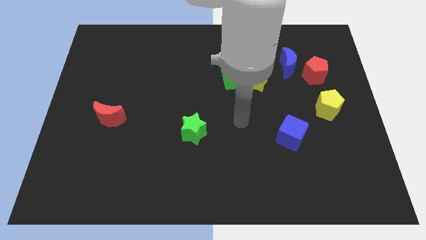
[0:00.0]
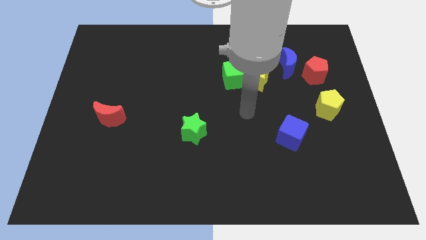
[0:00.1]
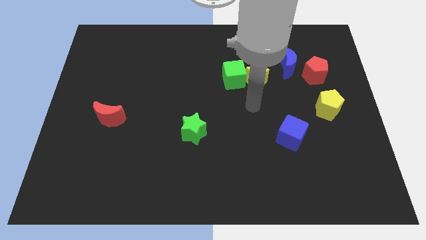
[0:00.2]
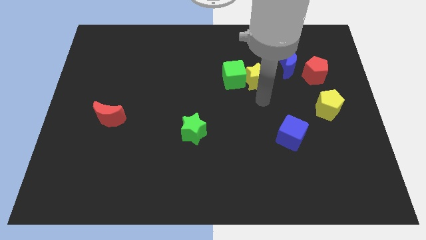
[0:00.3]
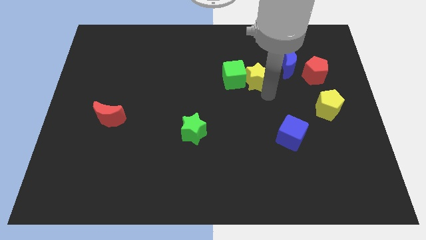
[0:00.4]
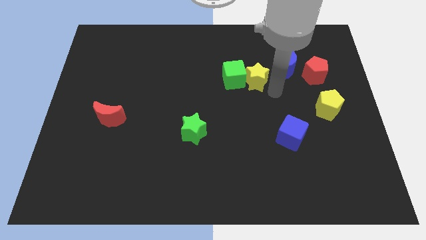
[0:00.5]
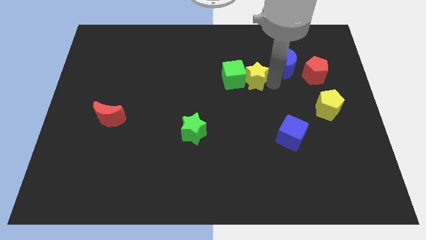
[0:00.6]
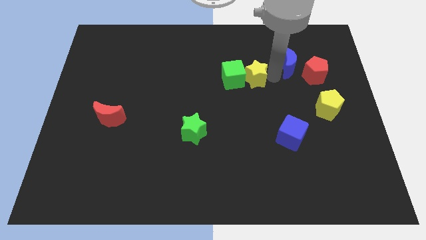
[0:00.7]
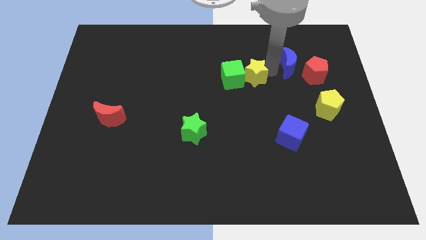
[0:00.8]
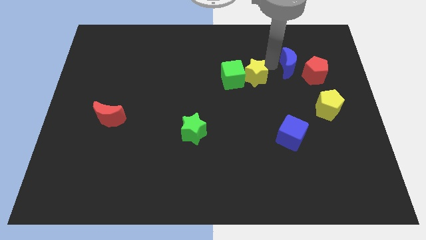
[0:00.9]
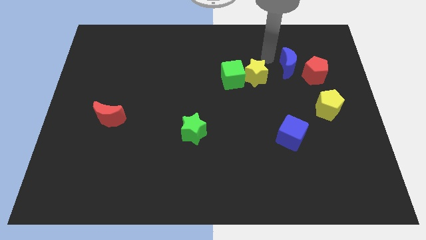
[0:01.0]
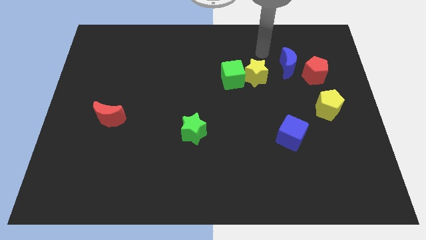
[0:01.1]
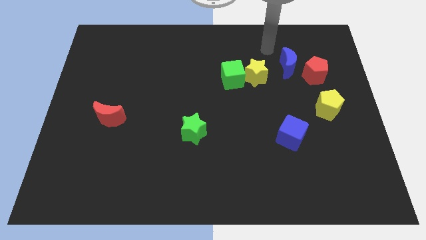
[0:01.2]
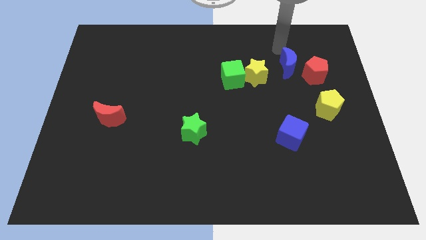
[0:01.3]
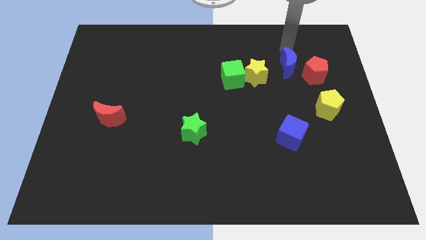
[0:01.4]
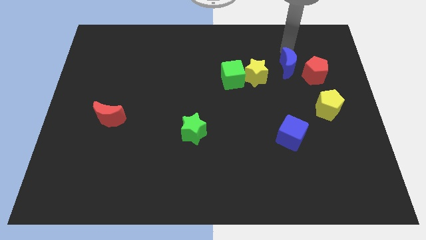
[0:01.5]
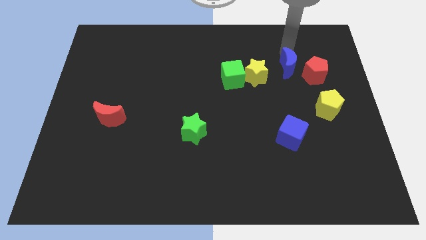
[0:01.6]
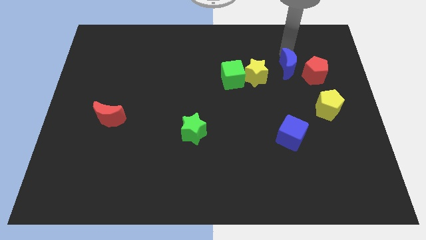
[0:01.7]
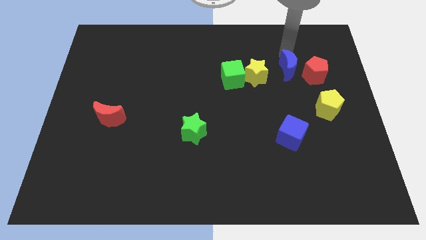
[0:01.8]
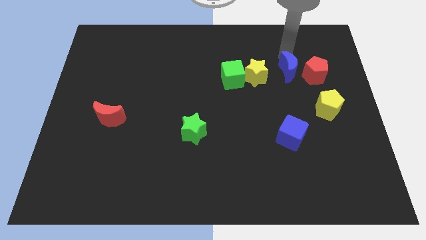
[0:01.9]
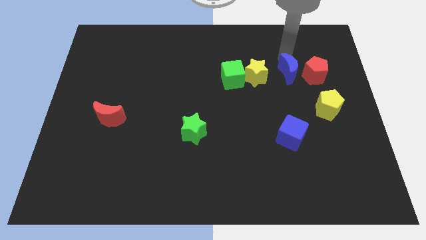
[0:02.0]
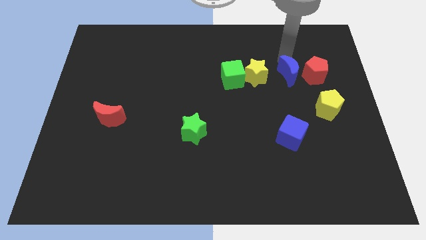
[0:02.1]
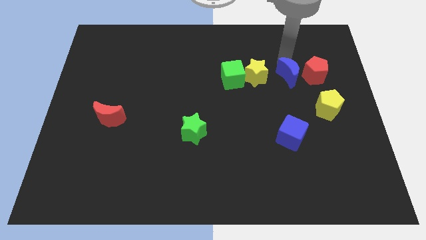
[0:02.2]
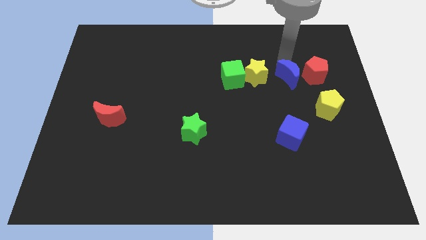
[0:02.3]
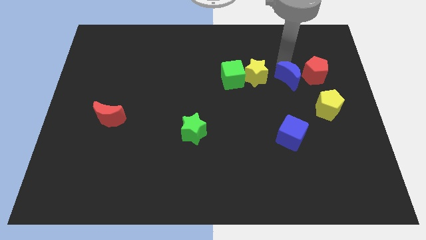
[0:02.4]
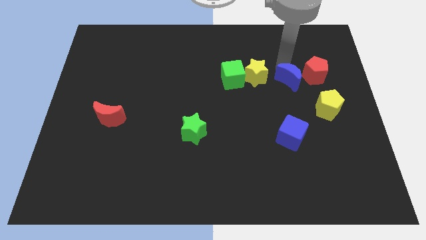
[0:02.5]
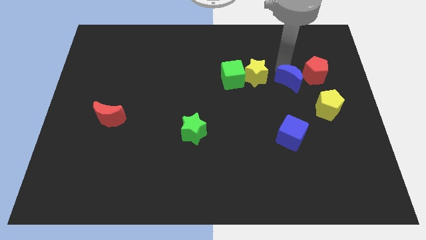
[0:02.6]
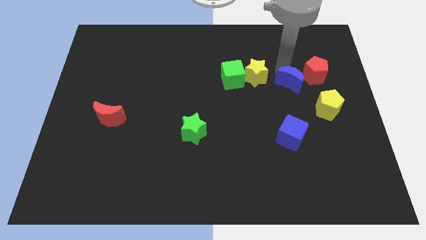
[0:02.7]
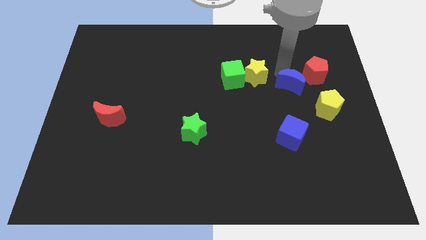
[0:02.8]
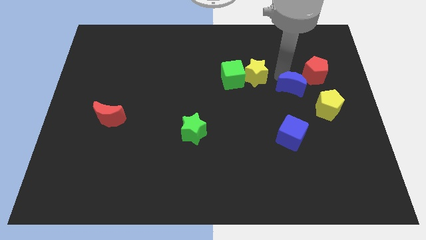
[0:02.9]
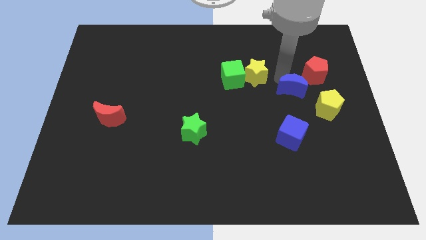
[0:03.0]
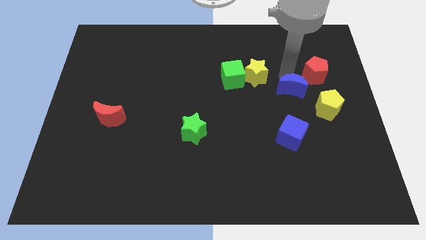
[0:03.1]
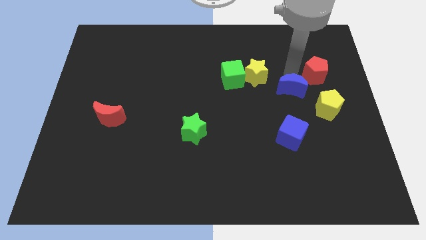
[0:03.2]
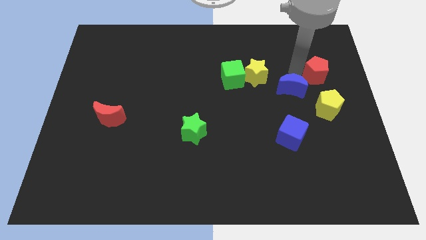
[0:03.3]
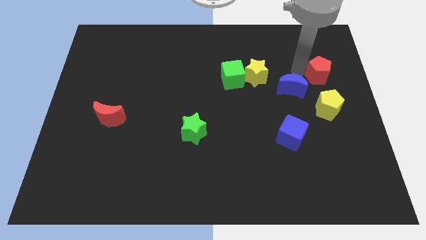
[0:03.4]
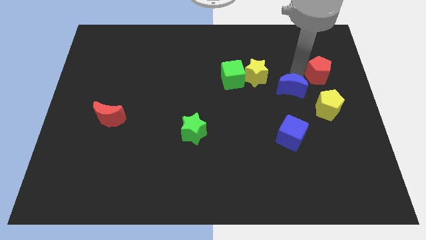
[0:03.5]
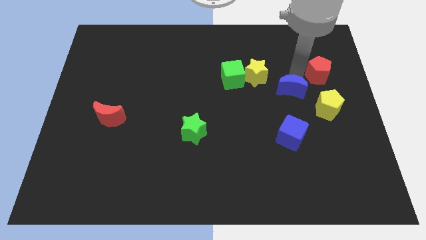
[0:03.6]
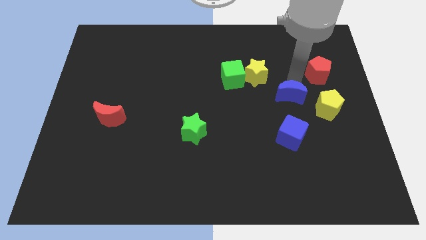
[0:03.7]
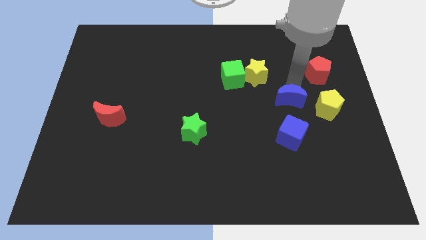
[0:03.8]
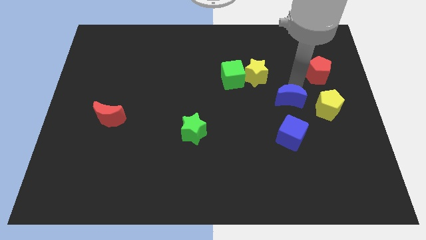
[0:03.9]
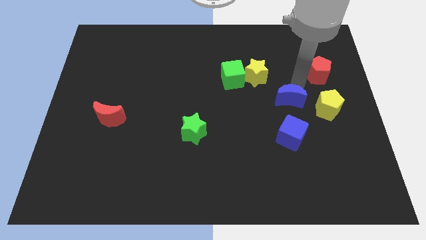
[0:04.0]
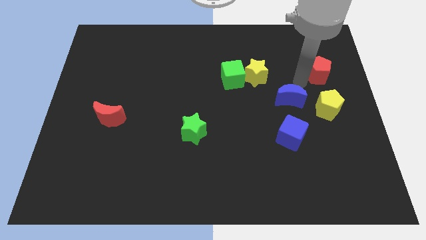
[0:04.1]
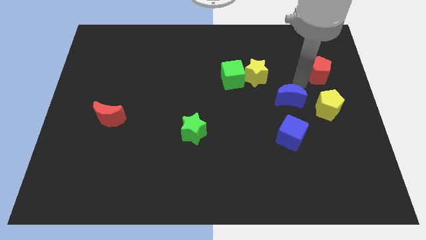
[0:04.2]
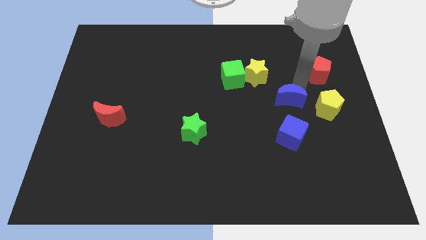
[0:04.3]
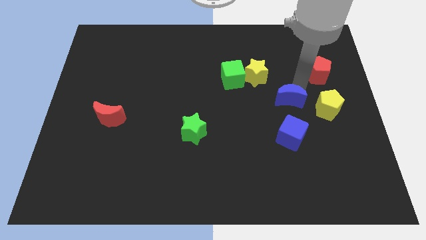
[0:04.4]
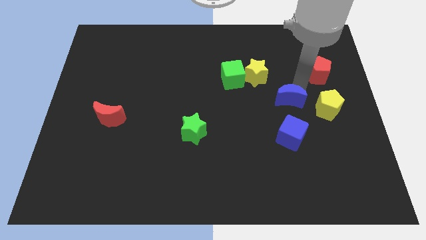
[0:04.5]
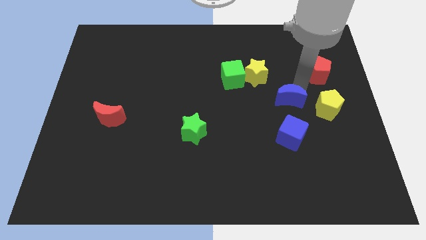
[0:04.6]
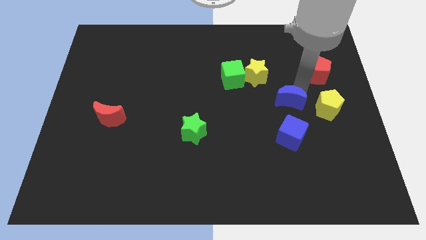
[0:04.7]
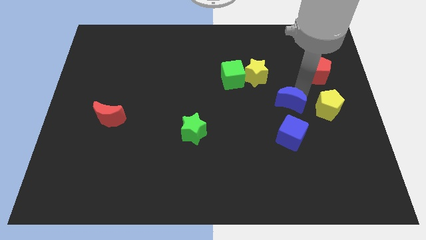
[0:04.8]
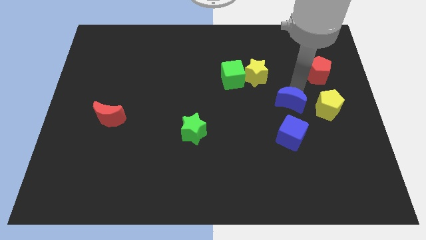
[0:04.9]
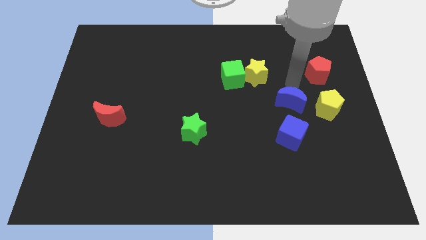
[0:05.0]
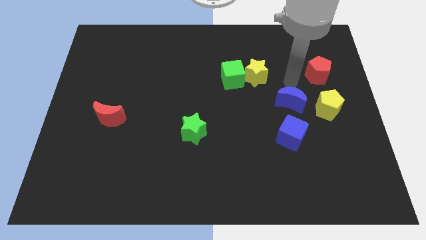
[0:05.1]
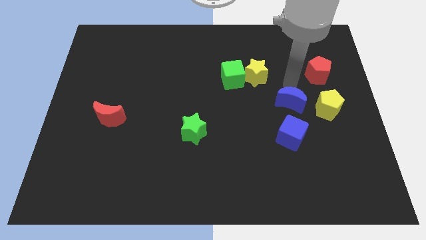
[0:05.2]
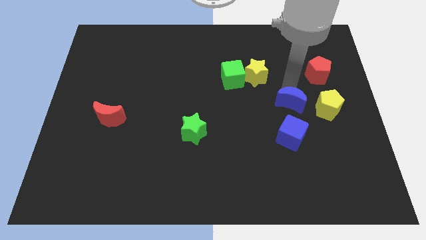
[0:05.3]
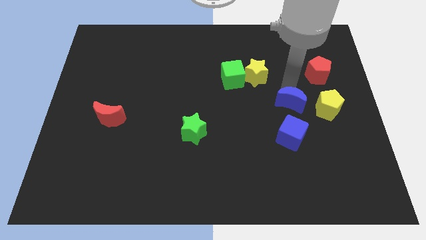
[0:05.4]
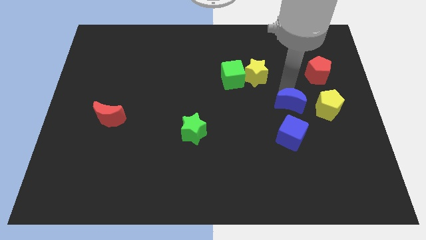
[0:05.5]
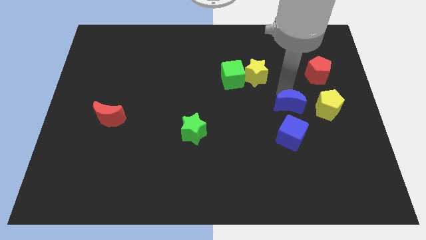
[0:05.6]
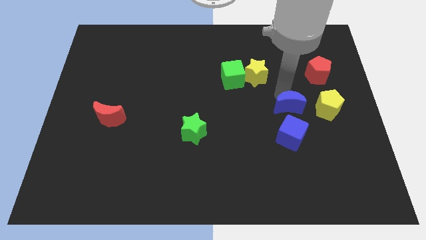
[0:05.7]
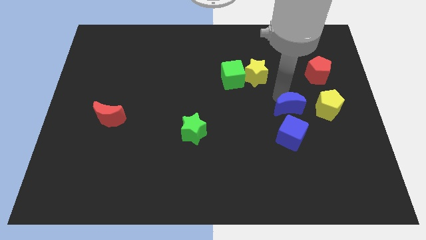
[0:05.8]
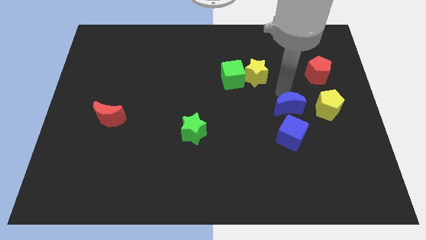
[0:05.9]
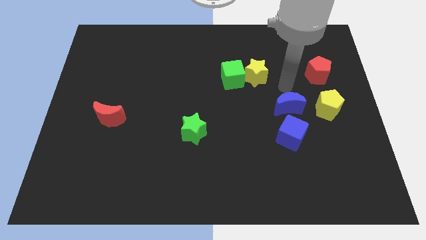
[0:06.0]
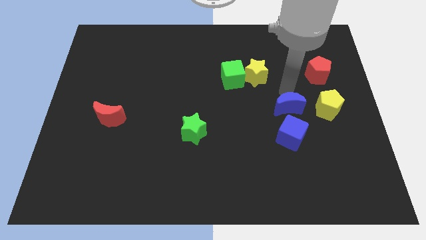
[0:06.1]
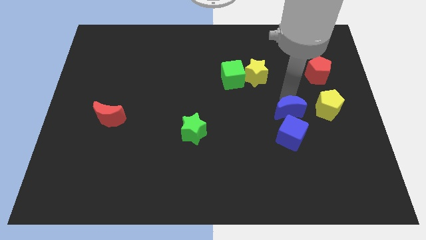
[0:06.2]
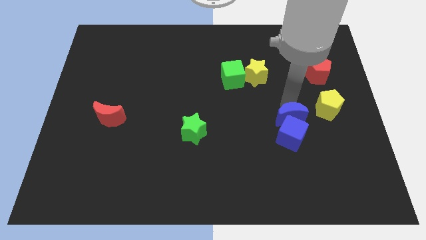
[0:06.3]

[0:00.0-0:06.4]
push the blue moon next to the blue cube

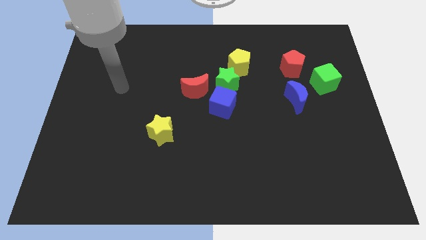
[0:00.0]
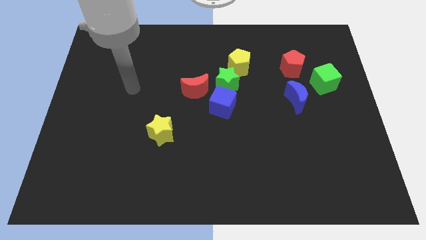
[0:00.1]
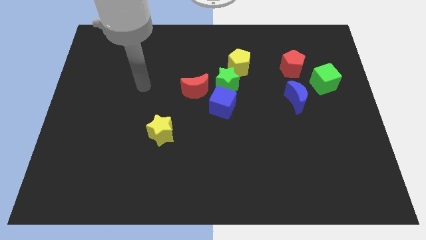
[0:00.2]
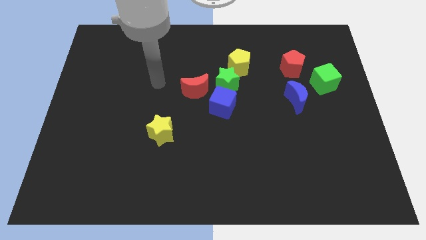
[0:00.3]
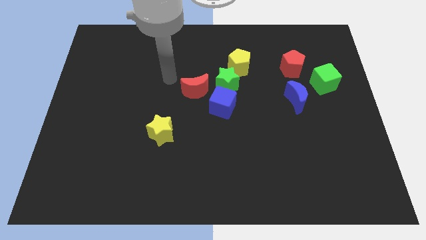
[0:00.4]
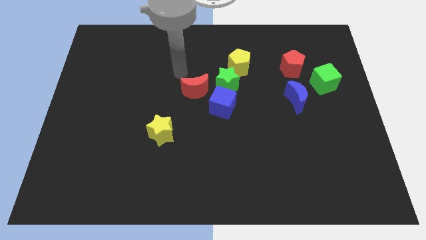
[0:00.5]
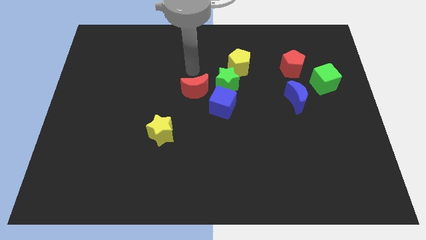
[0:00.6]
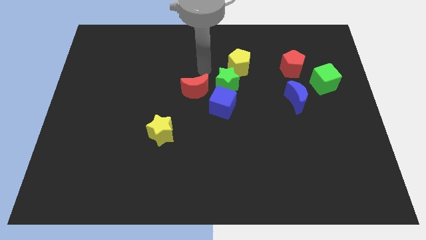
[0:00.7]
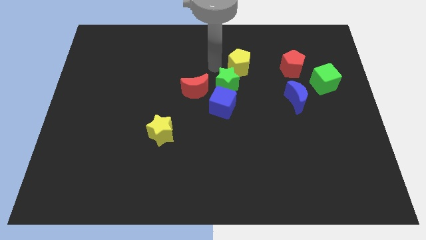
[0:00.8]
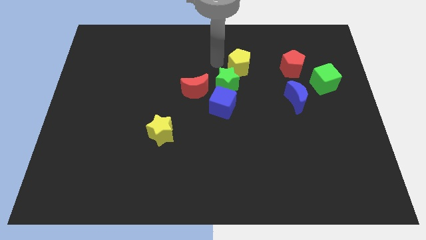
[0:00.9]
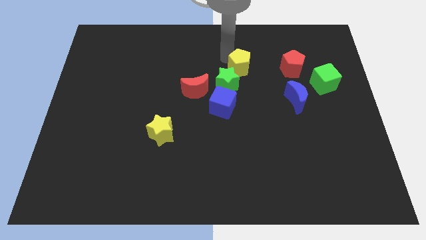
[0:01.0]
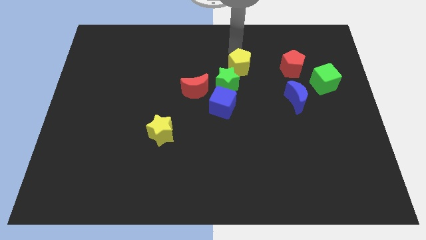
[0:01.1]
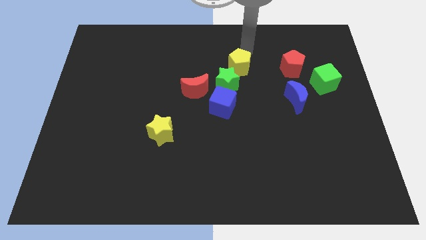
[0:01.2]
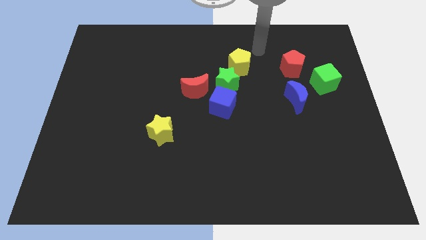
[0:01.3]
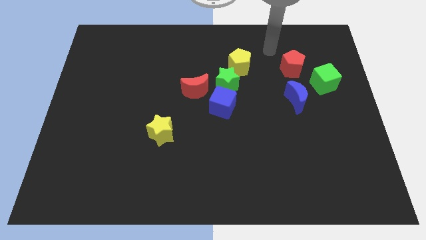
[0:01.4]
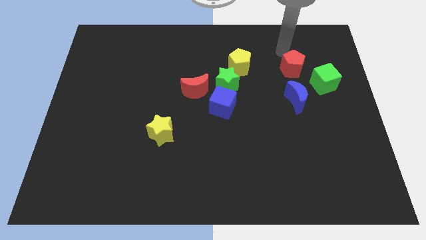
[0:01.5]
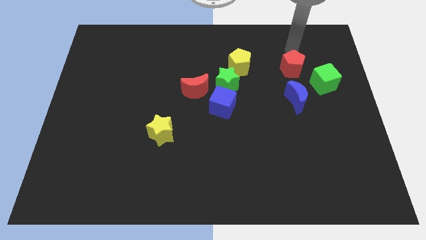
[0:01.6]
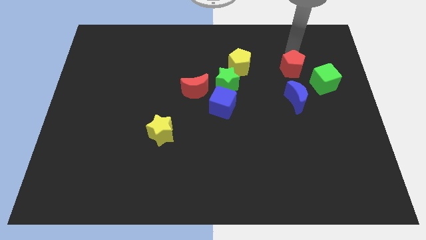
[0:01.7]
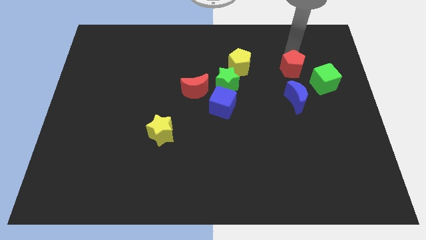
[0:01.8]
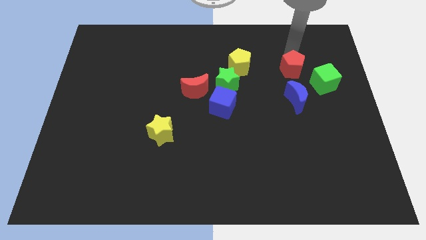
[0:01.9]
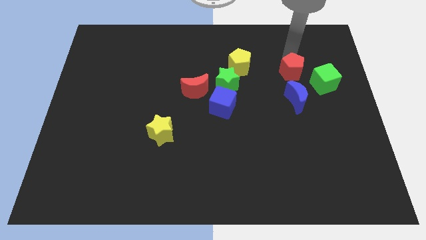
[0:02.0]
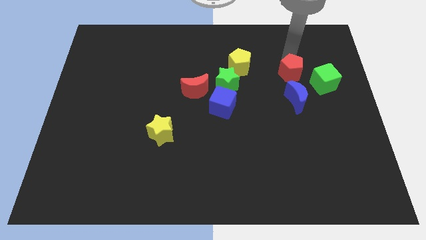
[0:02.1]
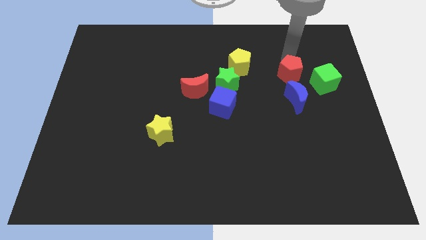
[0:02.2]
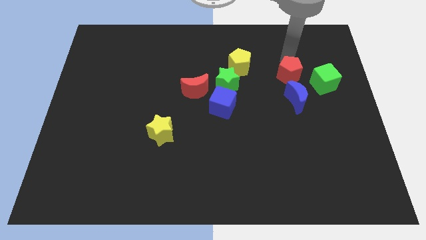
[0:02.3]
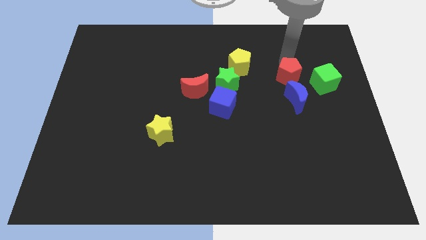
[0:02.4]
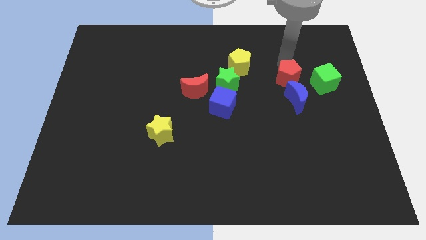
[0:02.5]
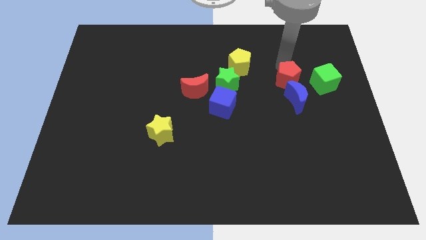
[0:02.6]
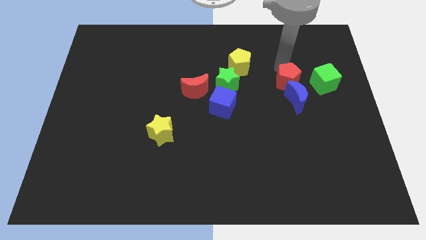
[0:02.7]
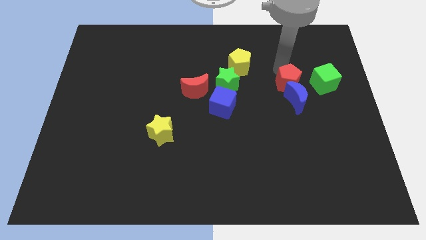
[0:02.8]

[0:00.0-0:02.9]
move the red pentagon next to the blue moon
